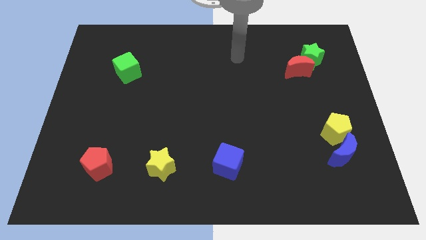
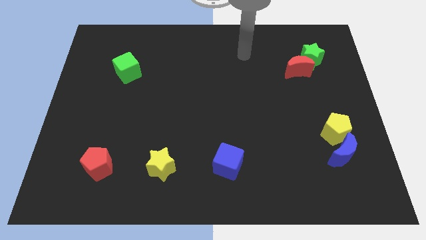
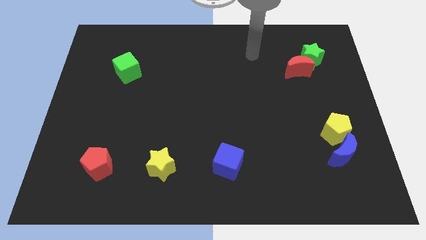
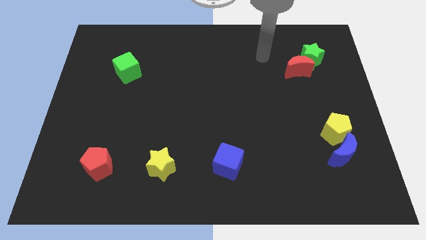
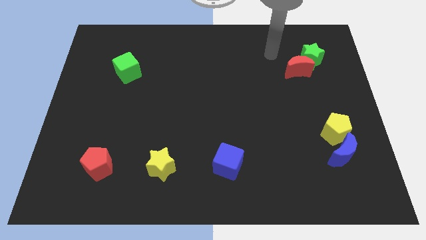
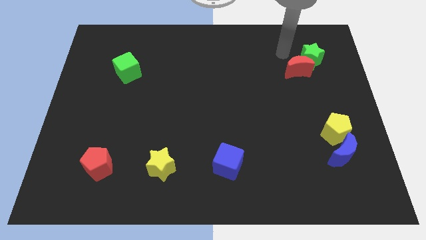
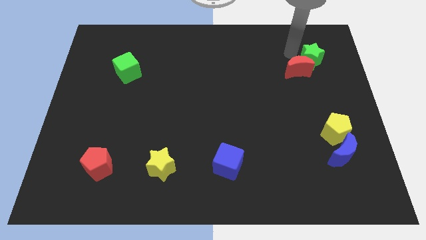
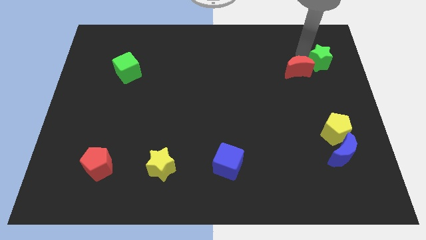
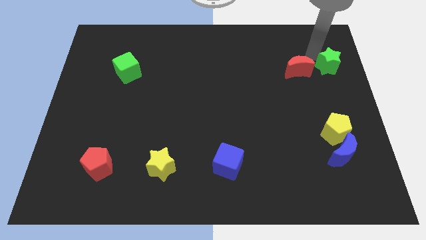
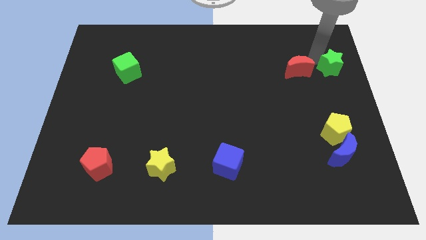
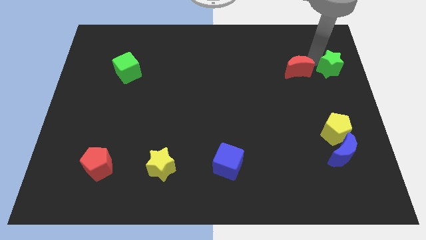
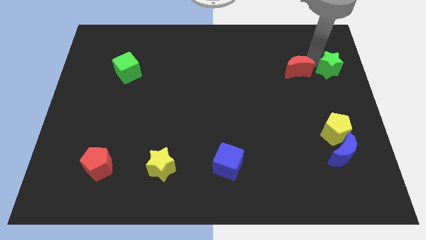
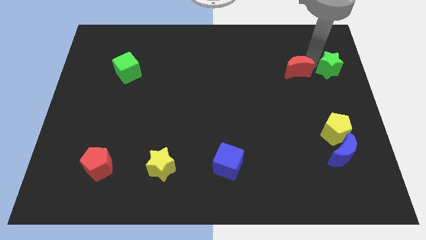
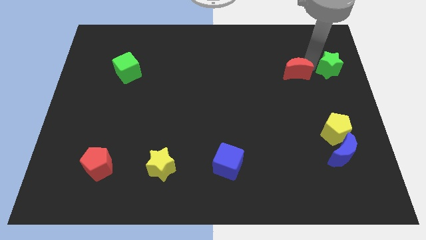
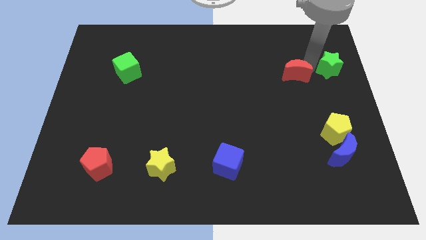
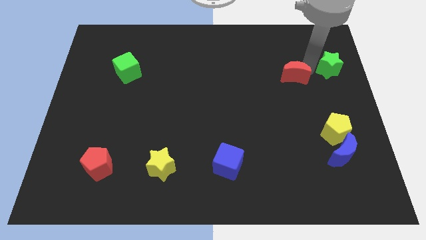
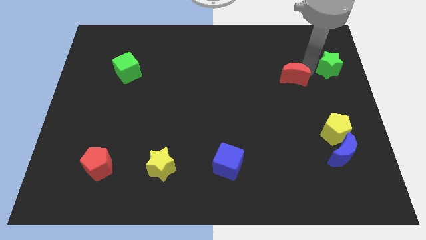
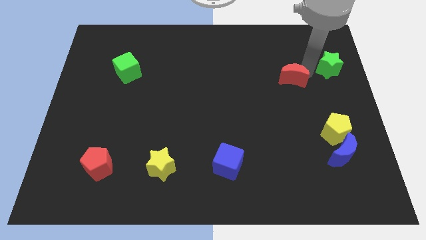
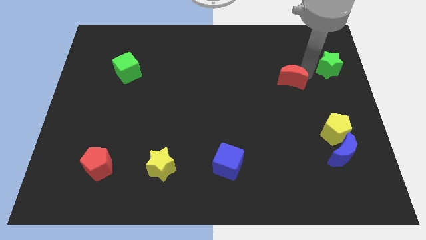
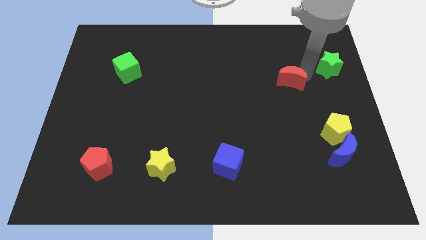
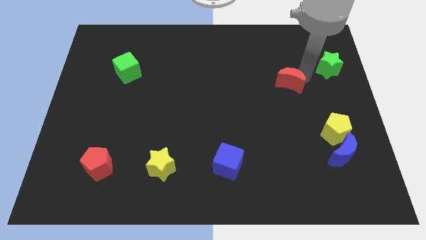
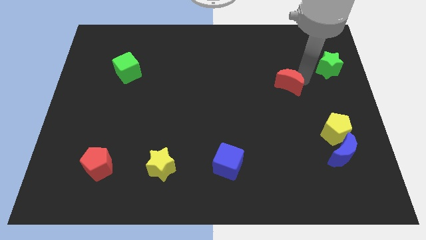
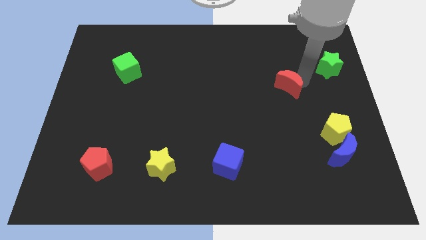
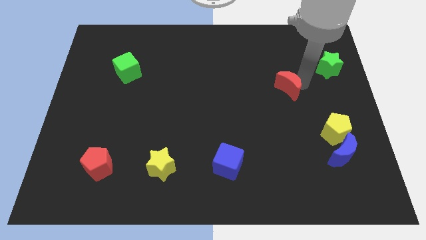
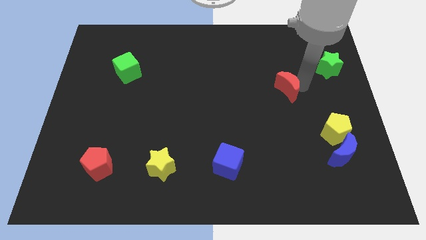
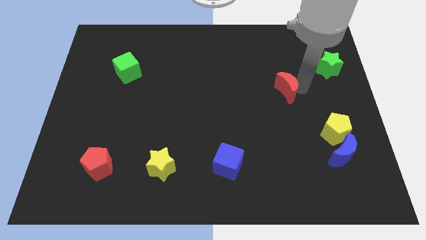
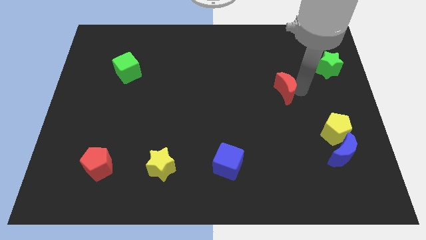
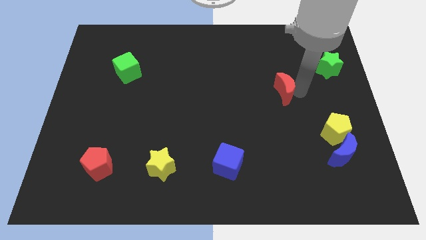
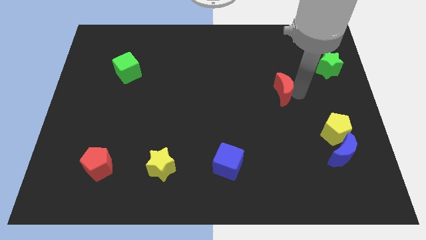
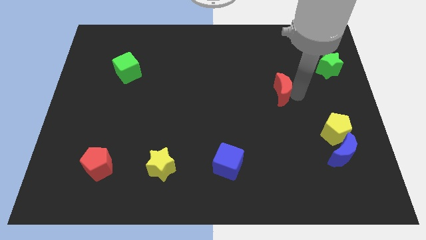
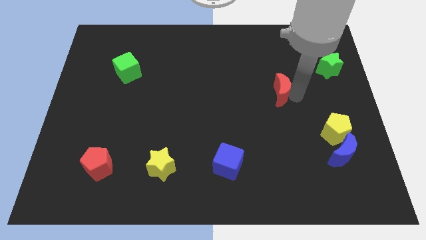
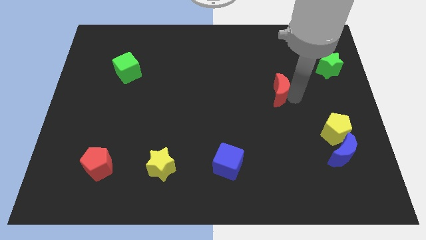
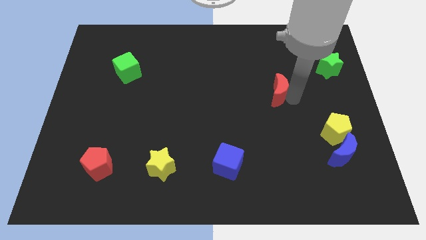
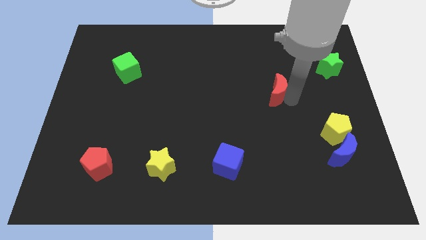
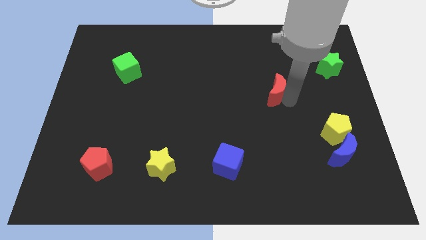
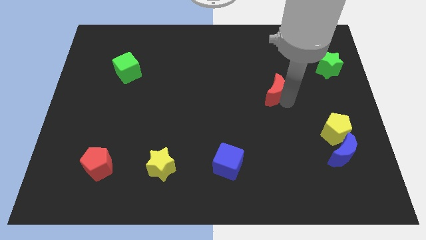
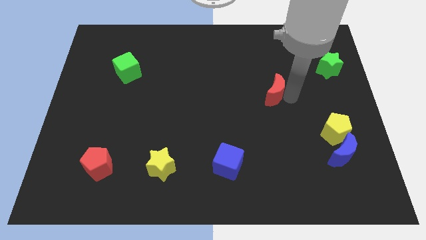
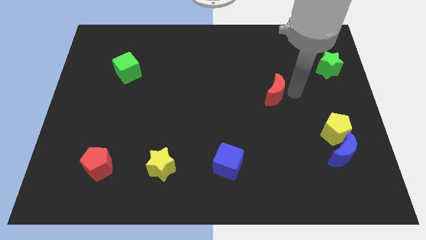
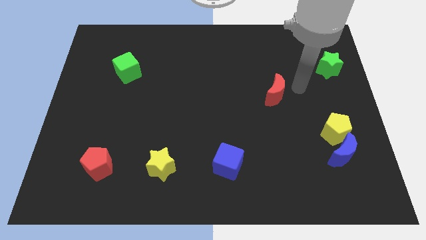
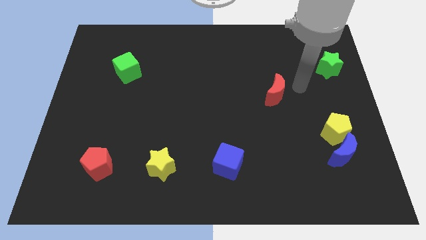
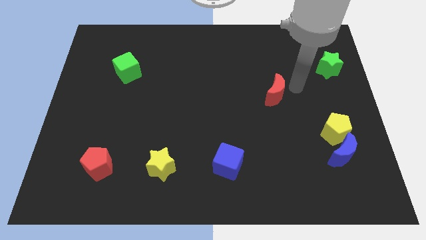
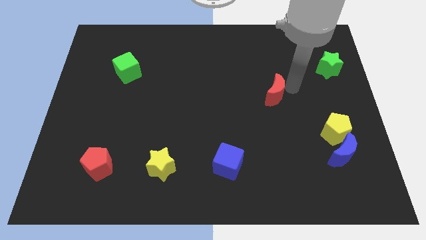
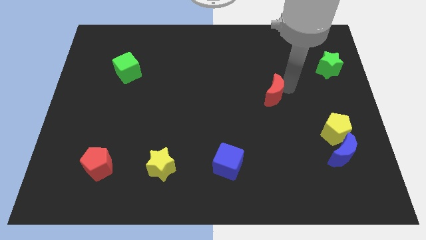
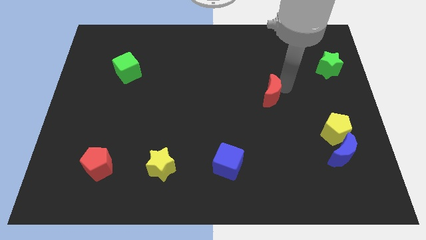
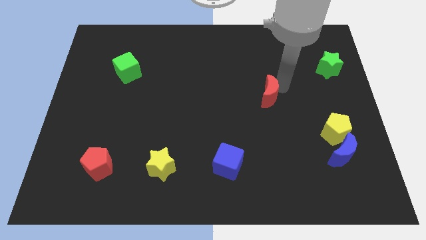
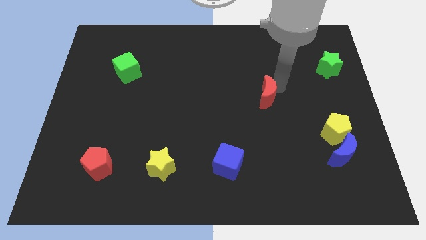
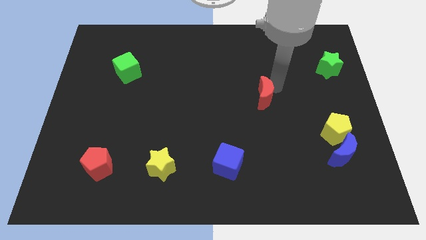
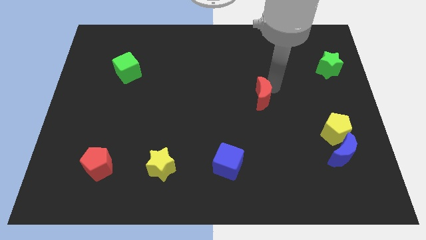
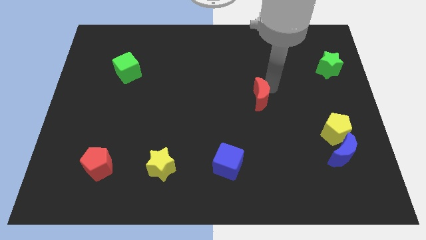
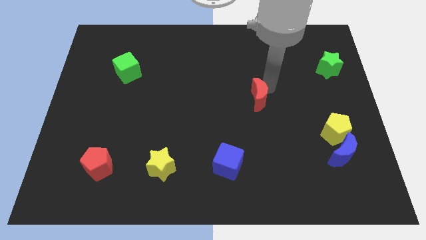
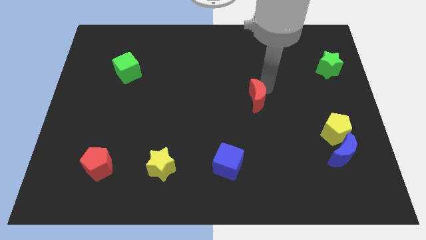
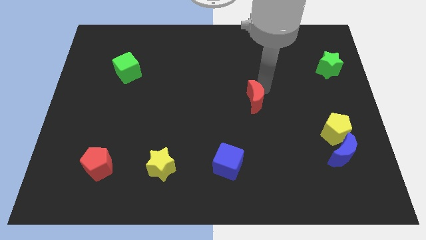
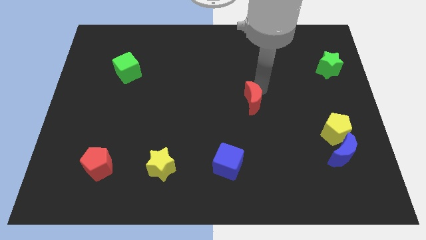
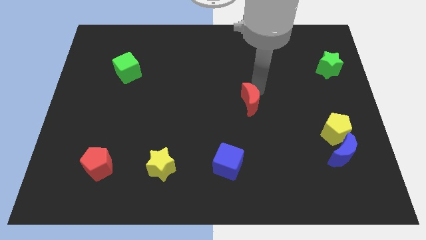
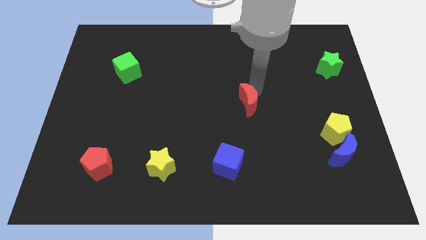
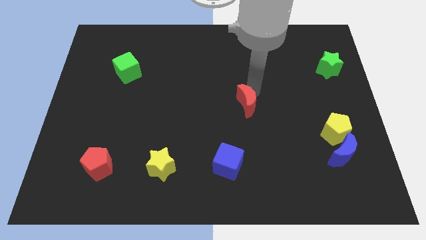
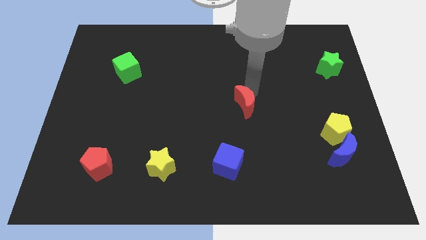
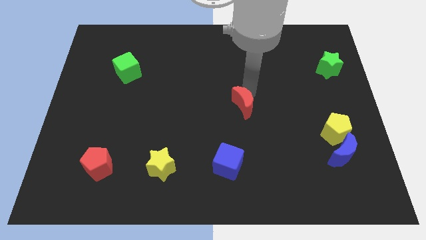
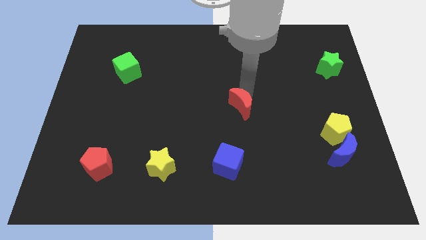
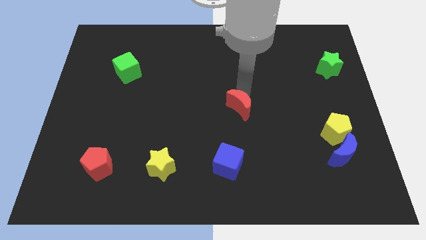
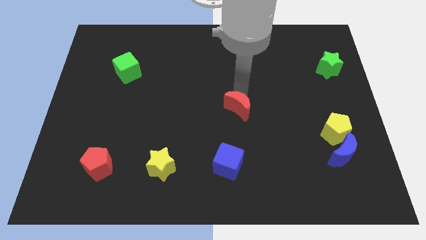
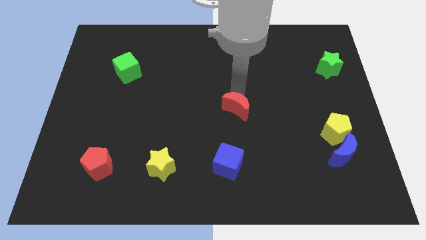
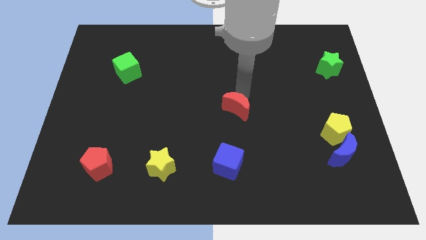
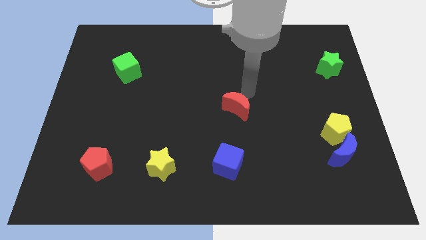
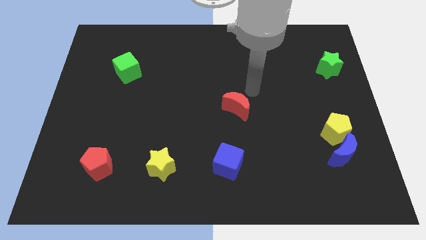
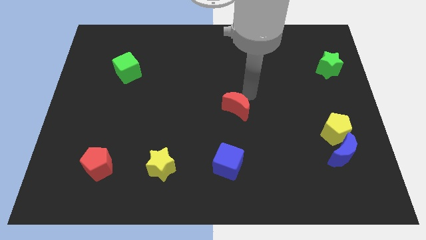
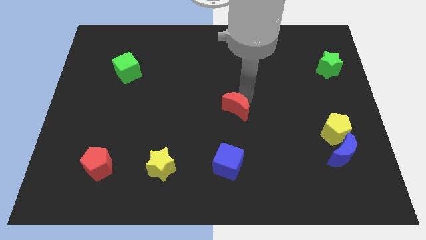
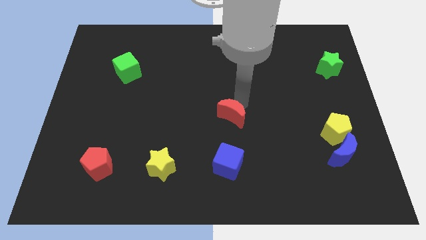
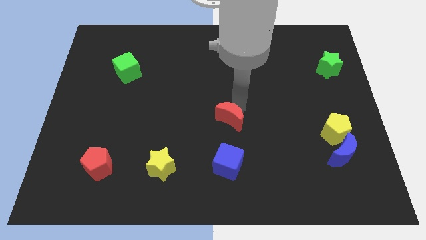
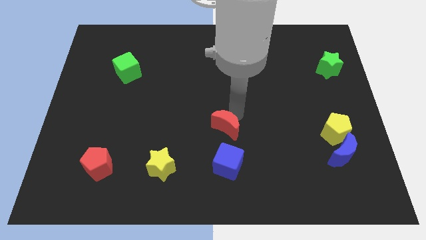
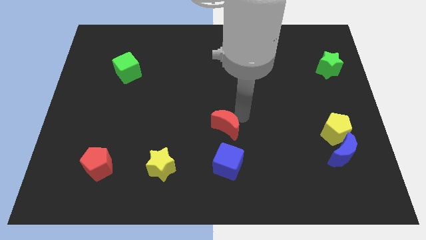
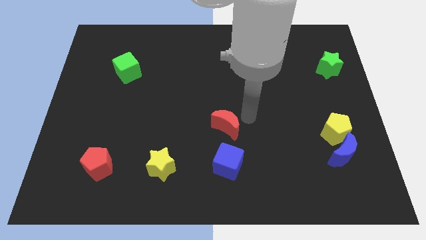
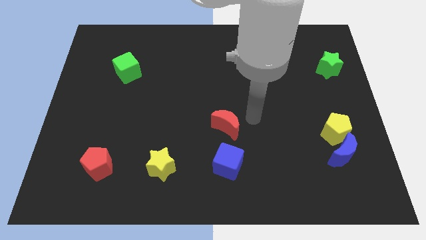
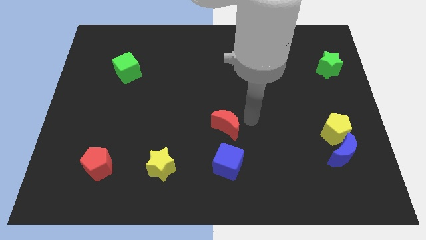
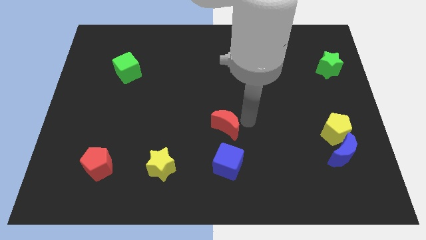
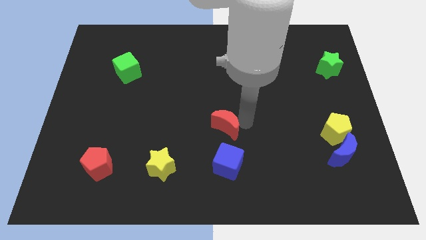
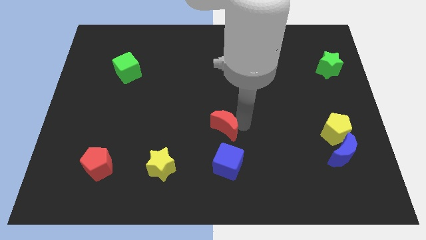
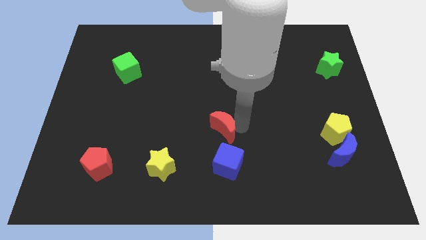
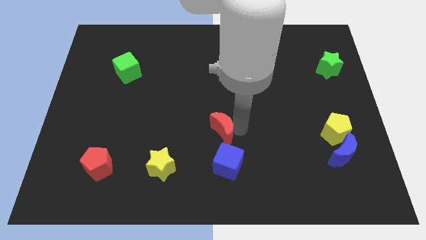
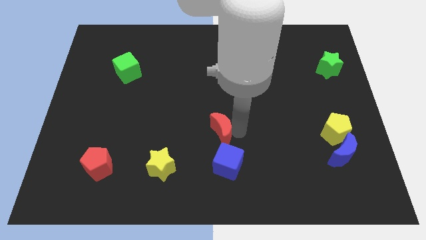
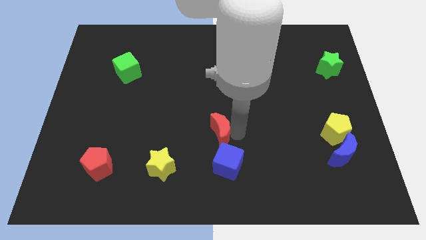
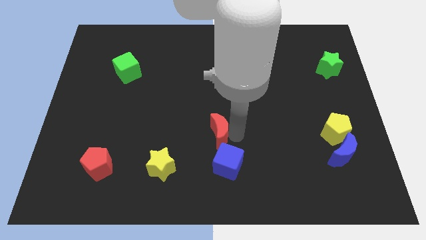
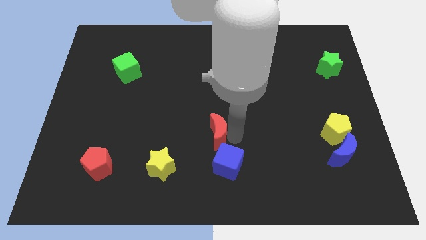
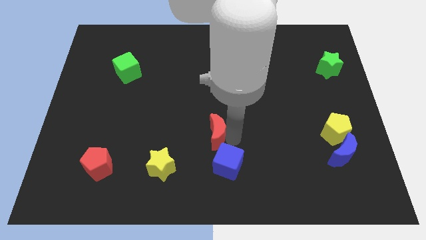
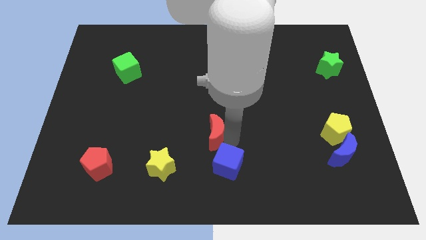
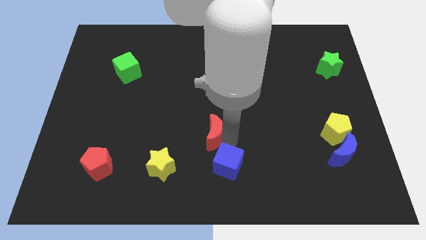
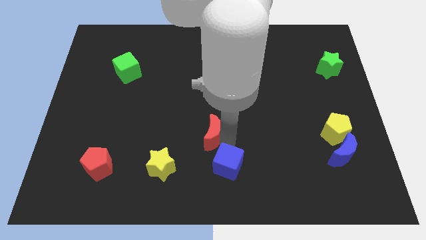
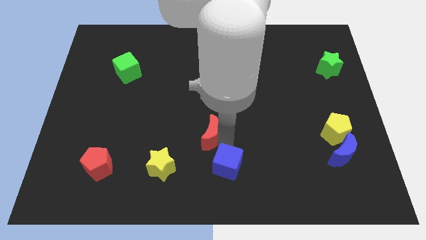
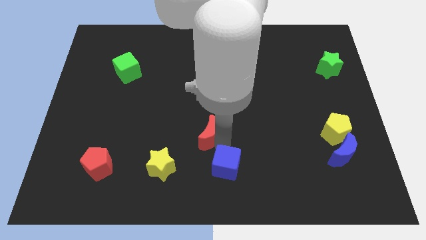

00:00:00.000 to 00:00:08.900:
move the red moon to the top right side of the yellow star
